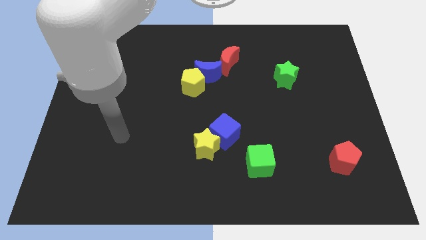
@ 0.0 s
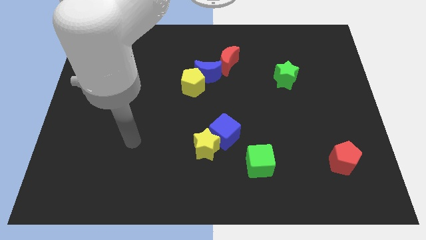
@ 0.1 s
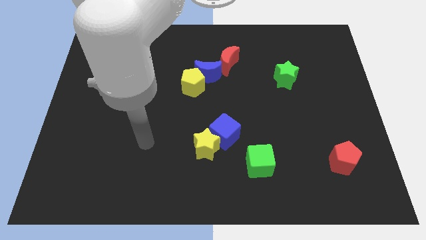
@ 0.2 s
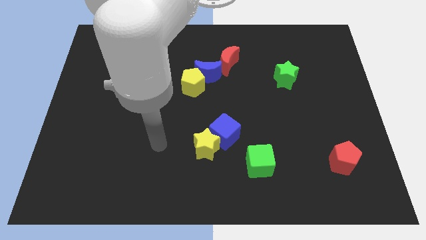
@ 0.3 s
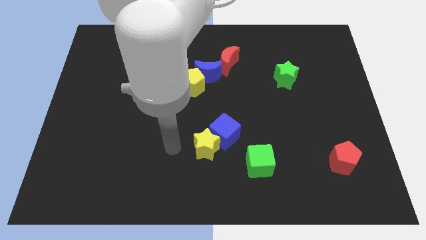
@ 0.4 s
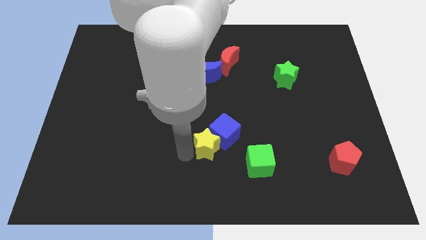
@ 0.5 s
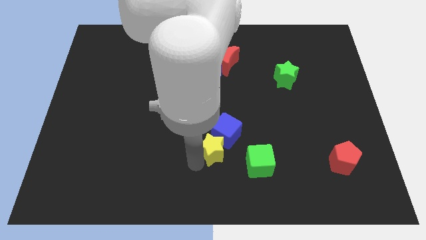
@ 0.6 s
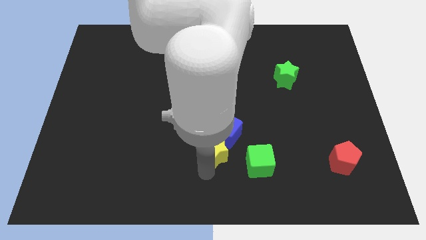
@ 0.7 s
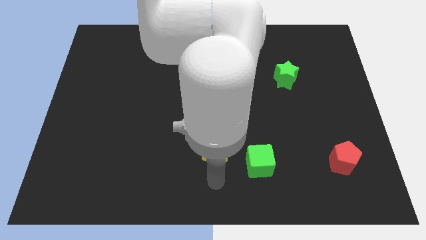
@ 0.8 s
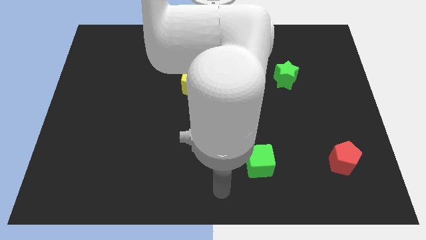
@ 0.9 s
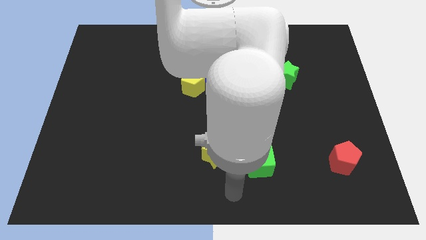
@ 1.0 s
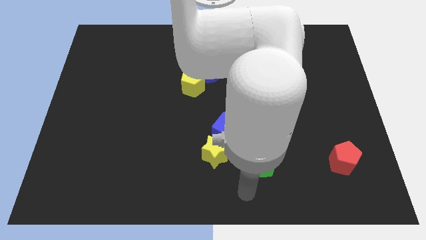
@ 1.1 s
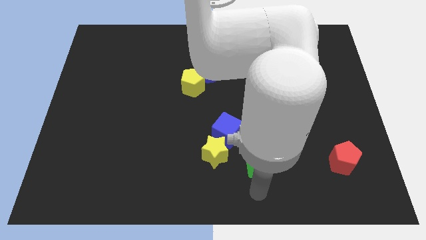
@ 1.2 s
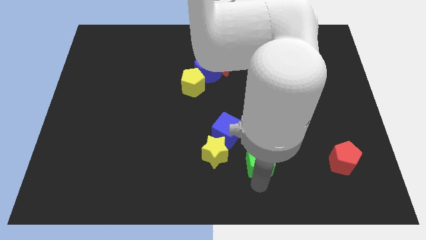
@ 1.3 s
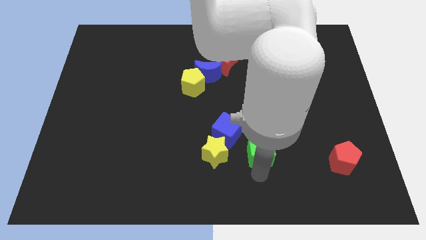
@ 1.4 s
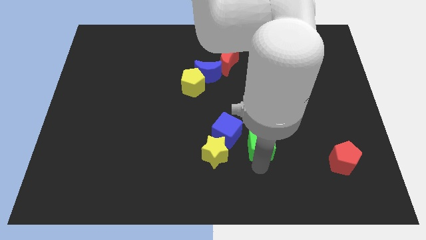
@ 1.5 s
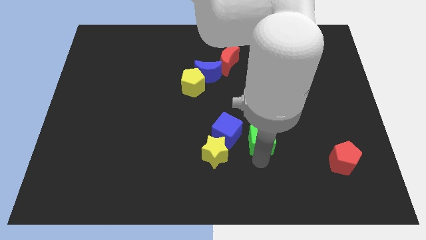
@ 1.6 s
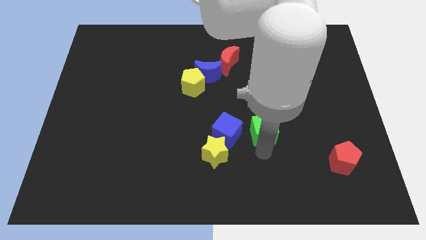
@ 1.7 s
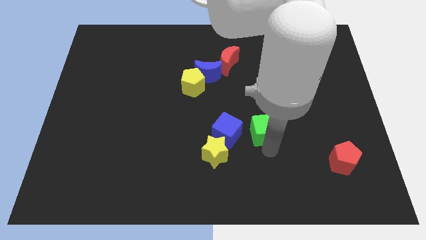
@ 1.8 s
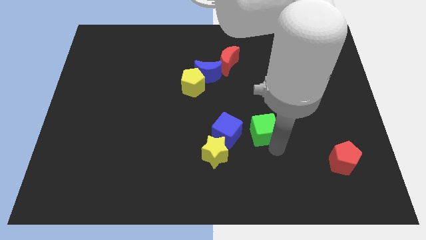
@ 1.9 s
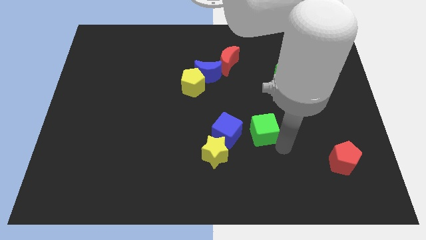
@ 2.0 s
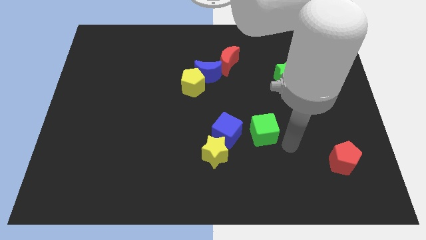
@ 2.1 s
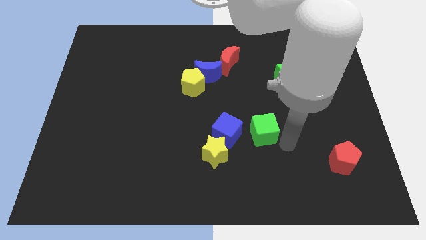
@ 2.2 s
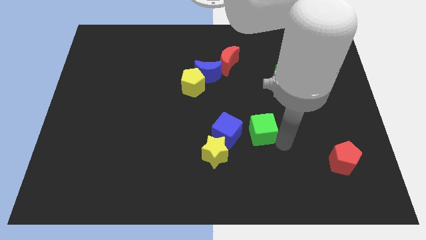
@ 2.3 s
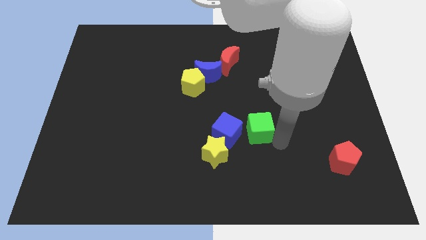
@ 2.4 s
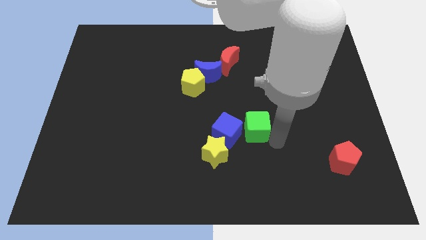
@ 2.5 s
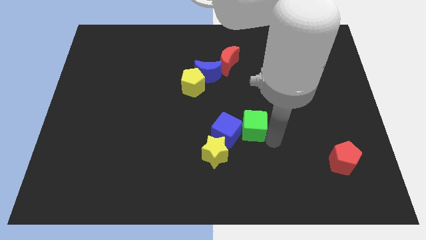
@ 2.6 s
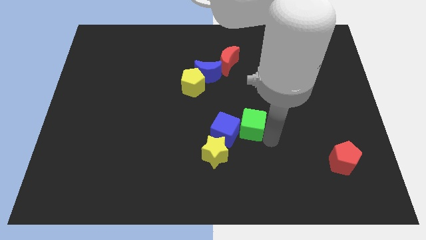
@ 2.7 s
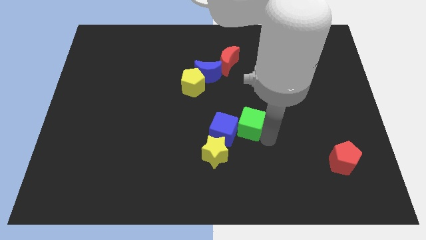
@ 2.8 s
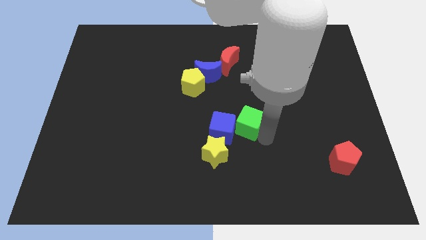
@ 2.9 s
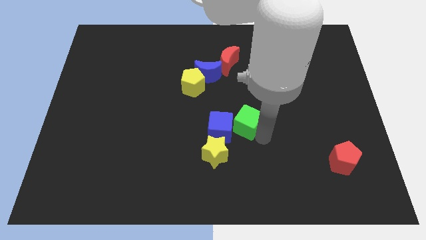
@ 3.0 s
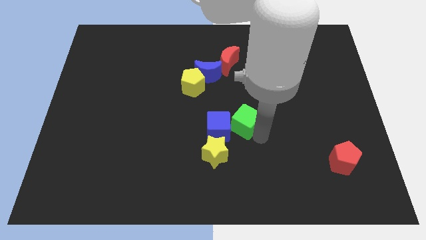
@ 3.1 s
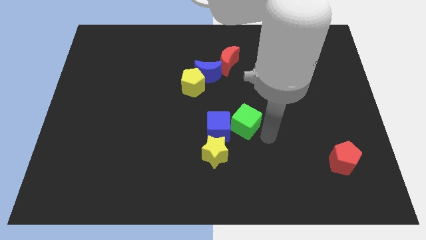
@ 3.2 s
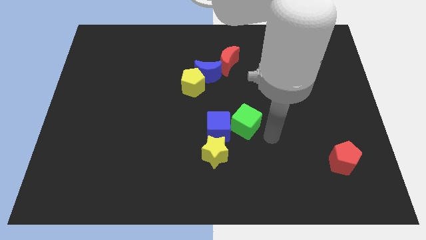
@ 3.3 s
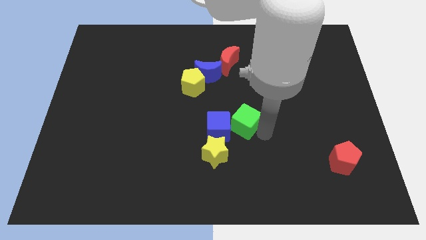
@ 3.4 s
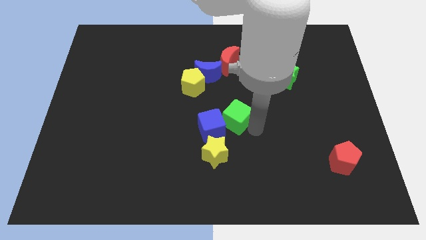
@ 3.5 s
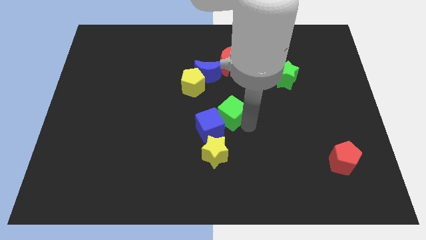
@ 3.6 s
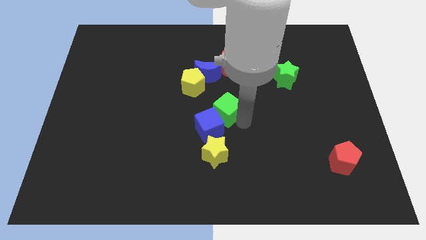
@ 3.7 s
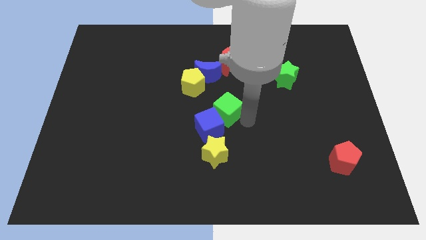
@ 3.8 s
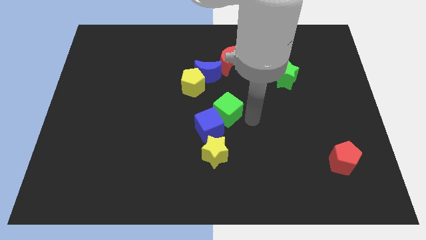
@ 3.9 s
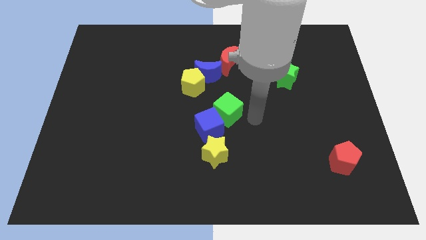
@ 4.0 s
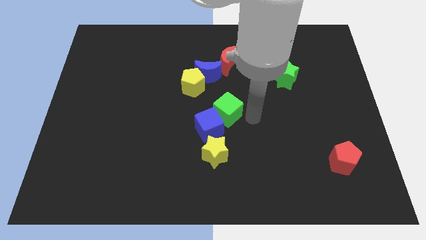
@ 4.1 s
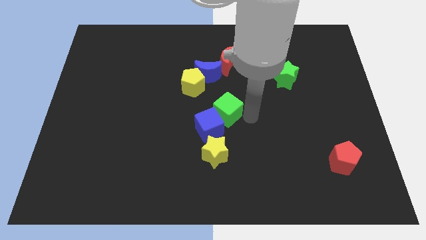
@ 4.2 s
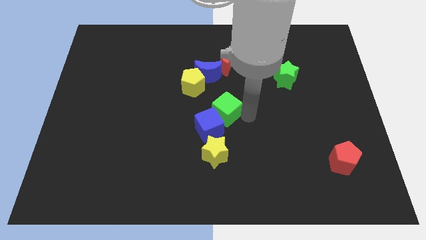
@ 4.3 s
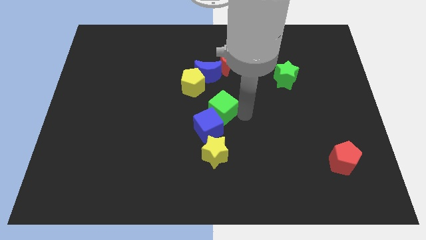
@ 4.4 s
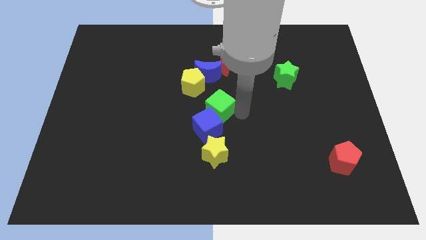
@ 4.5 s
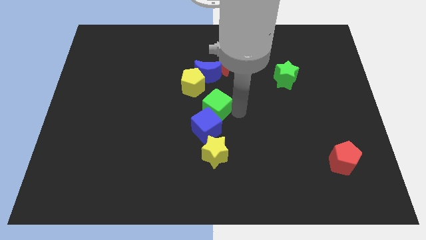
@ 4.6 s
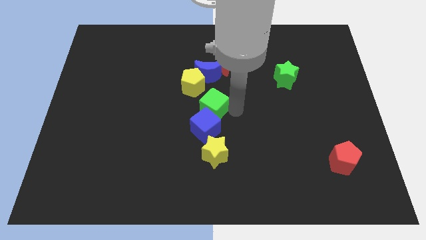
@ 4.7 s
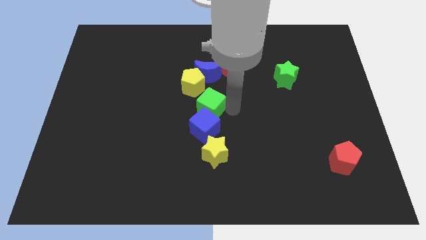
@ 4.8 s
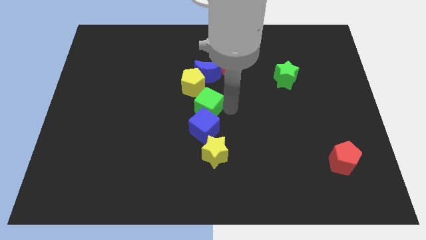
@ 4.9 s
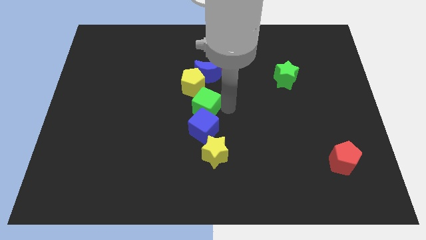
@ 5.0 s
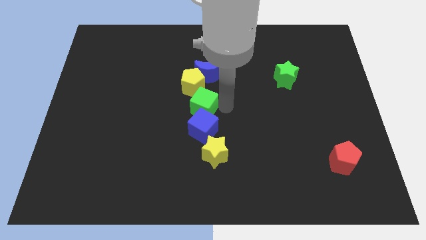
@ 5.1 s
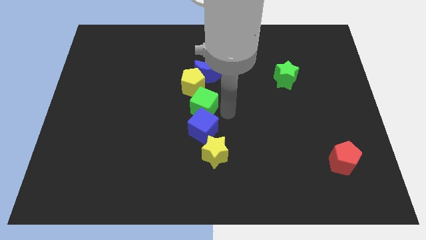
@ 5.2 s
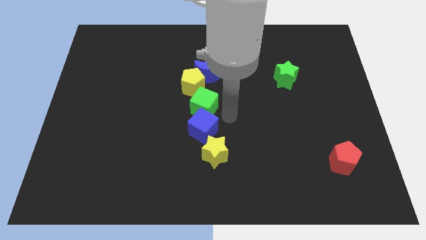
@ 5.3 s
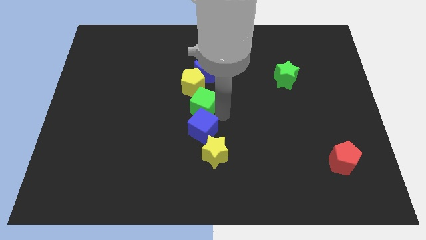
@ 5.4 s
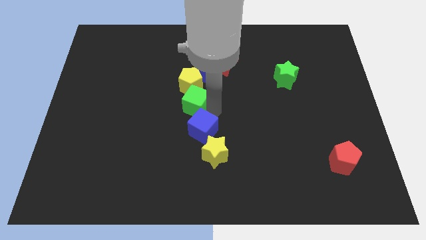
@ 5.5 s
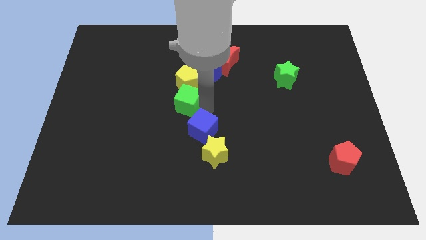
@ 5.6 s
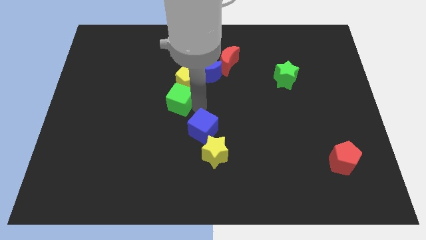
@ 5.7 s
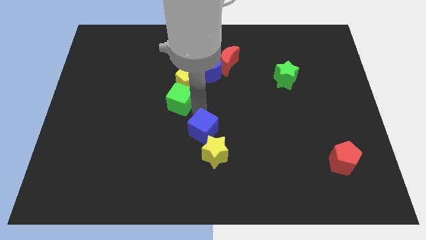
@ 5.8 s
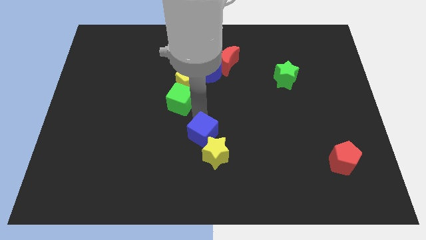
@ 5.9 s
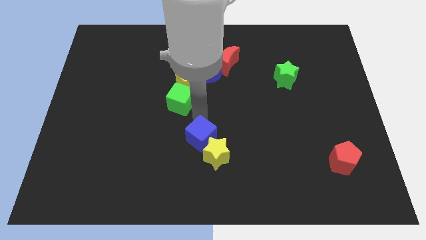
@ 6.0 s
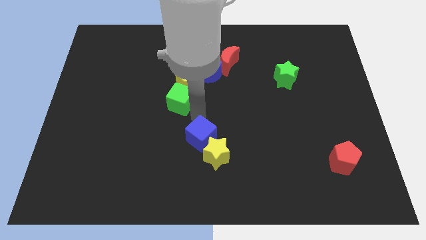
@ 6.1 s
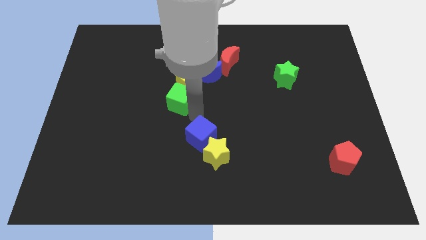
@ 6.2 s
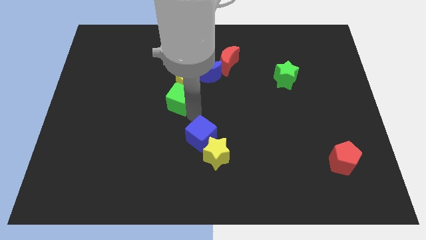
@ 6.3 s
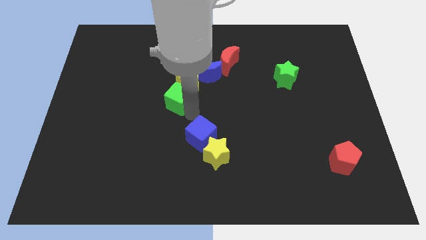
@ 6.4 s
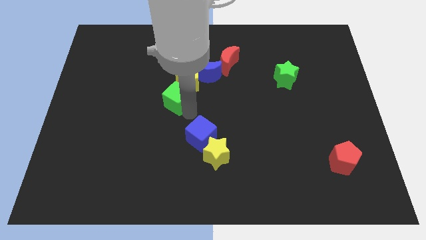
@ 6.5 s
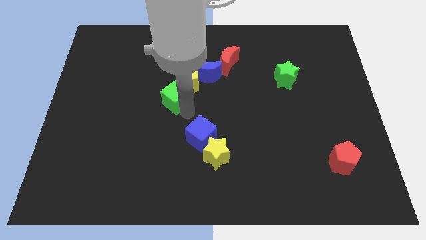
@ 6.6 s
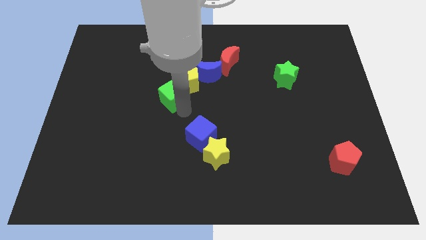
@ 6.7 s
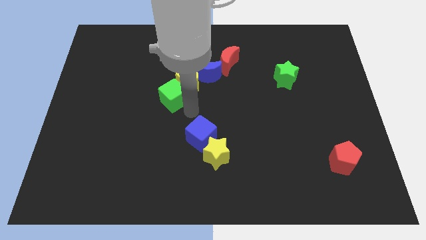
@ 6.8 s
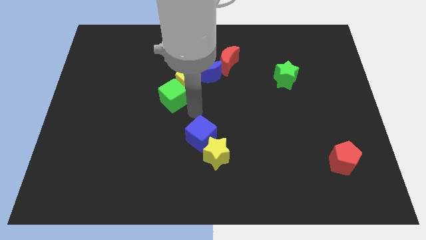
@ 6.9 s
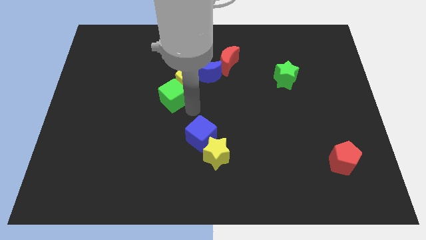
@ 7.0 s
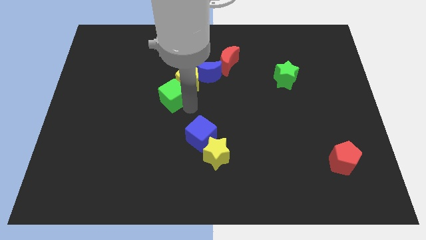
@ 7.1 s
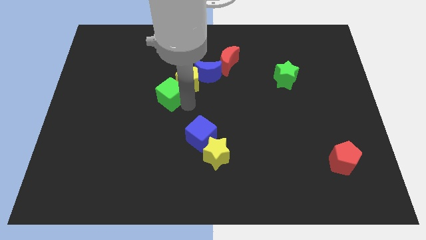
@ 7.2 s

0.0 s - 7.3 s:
move the green cube just left of the yellow pentagon
